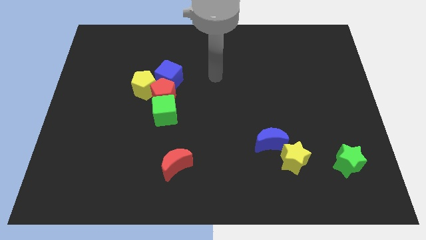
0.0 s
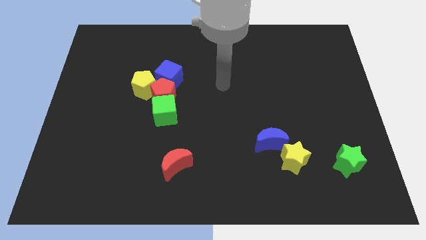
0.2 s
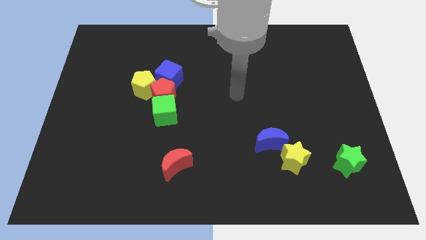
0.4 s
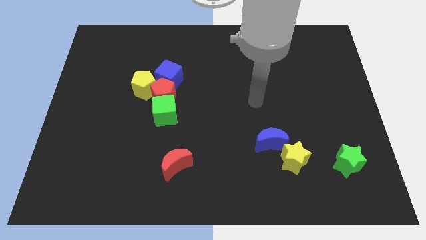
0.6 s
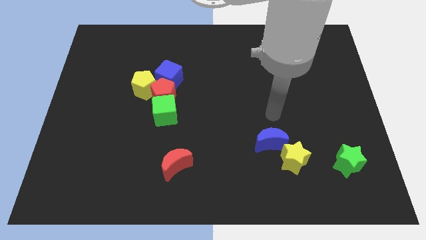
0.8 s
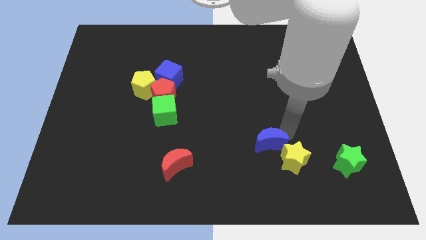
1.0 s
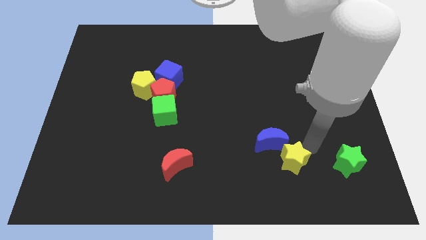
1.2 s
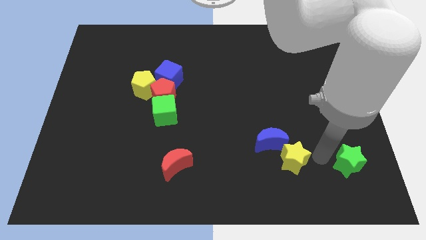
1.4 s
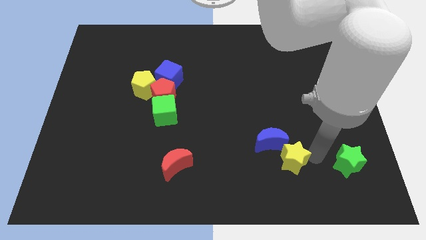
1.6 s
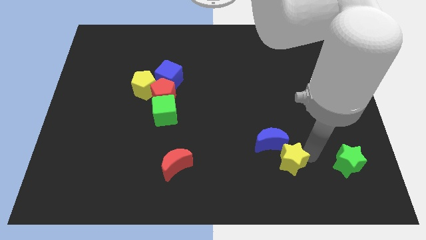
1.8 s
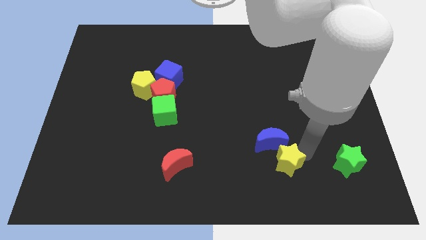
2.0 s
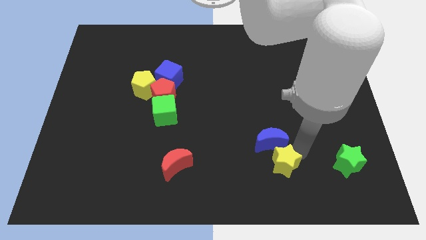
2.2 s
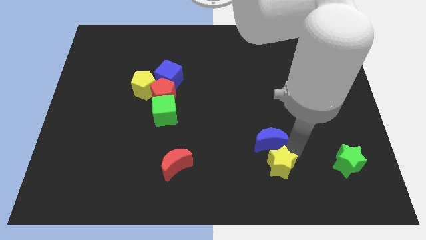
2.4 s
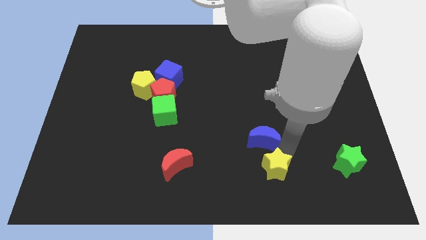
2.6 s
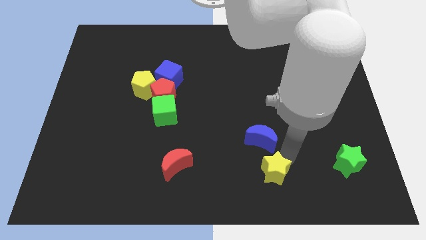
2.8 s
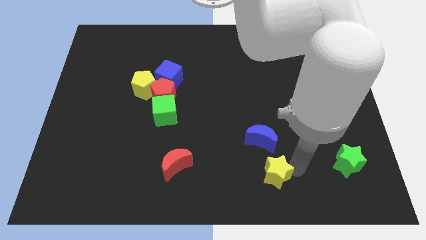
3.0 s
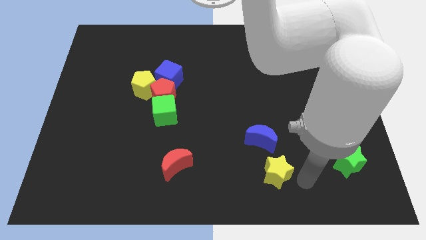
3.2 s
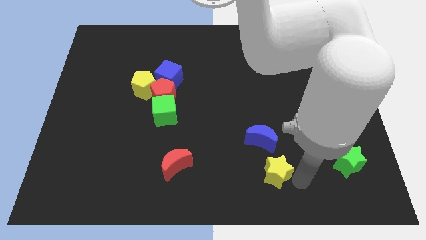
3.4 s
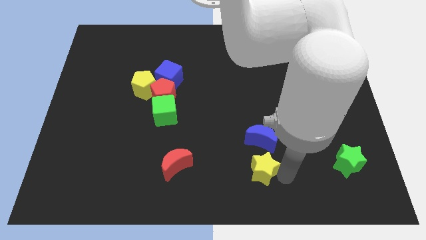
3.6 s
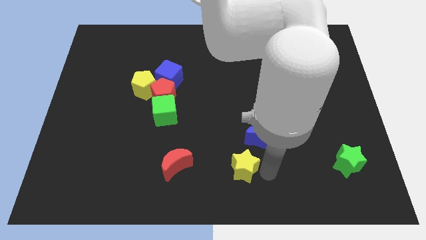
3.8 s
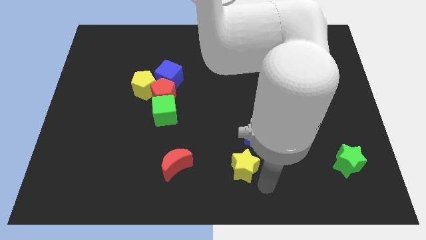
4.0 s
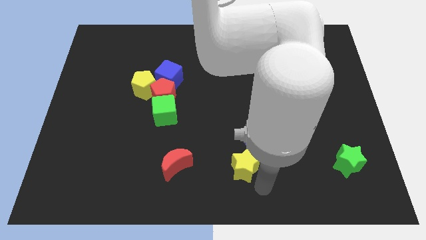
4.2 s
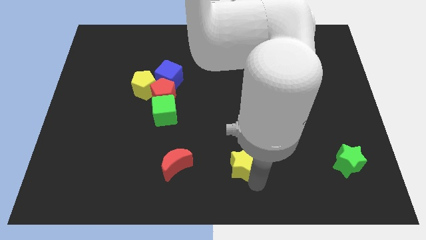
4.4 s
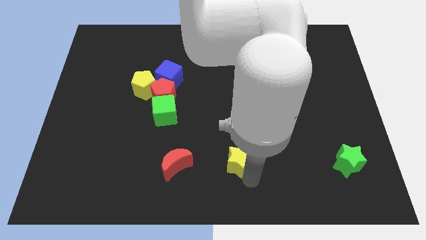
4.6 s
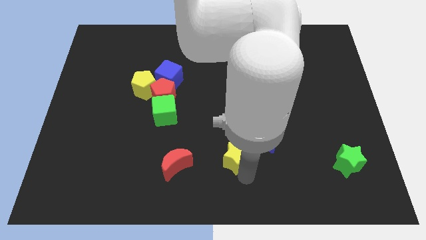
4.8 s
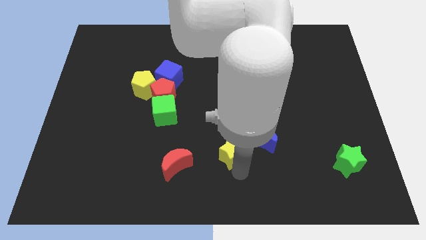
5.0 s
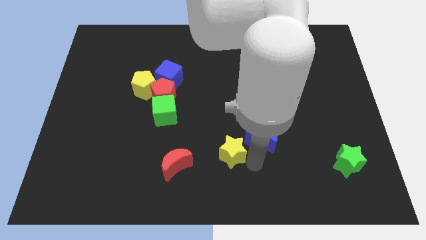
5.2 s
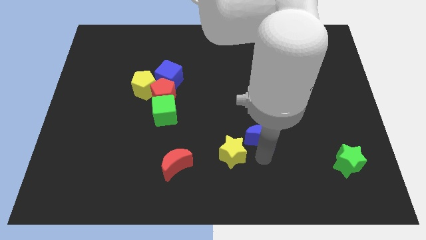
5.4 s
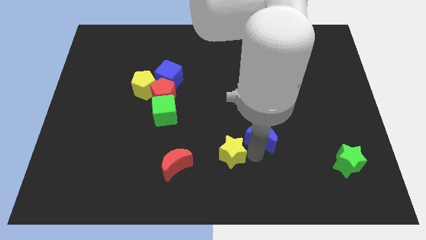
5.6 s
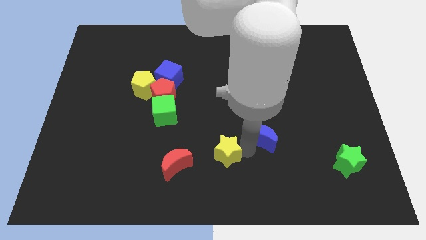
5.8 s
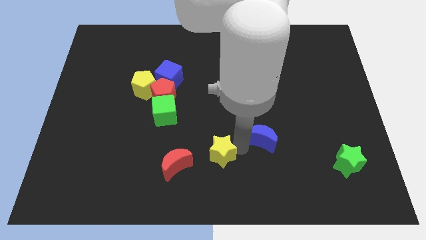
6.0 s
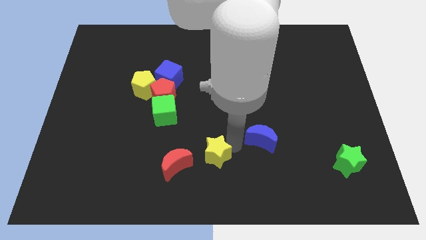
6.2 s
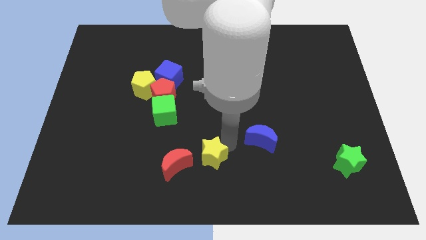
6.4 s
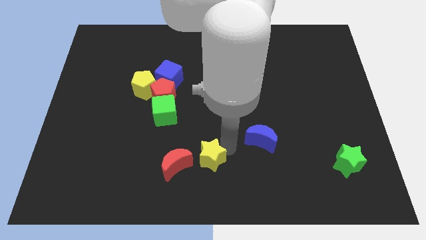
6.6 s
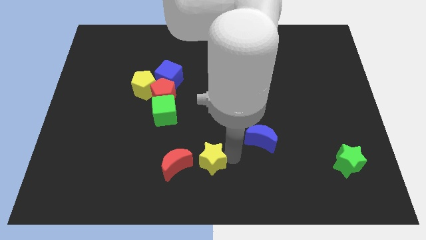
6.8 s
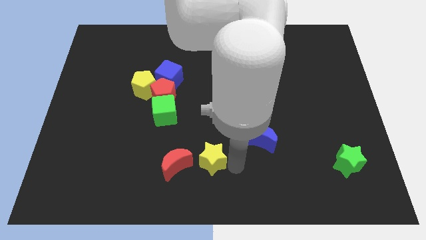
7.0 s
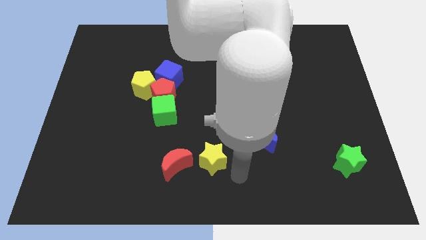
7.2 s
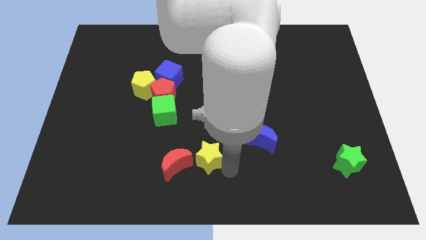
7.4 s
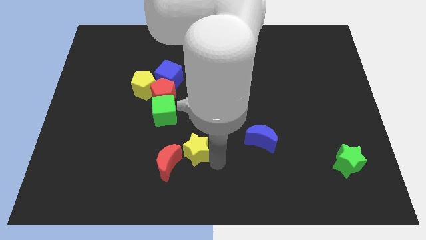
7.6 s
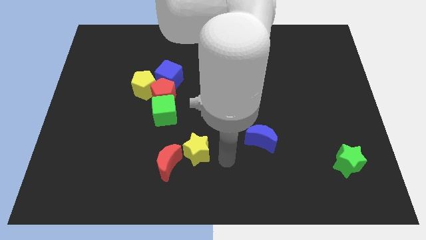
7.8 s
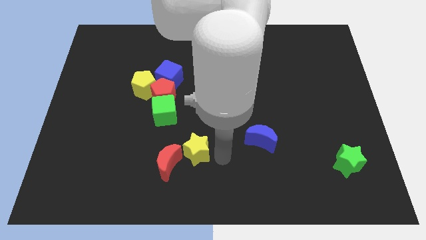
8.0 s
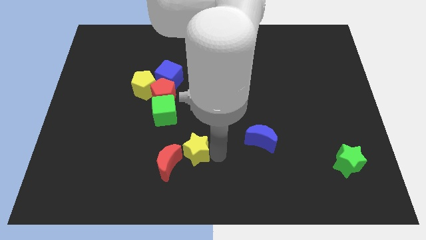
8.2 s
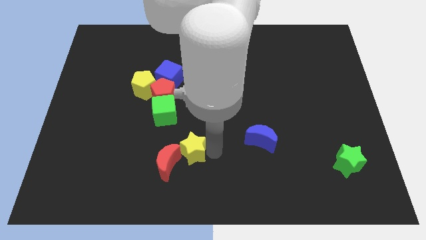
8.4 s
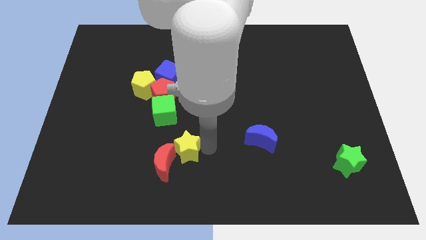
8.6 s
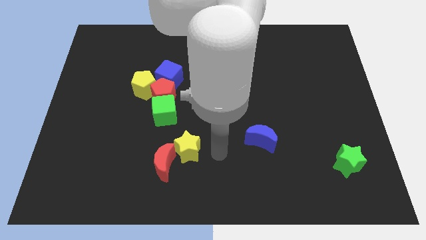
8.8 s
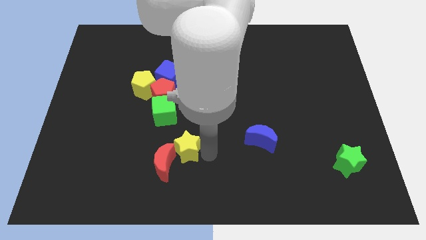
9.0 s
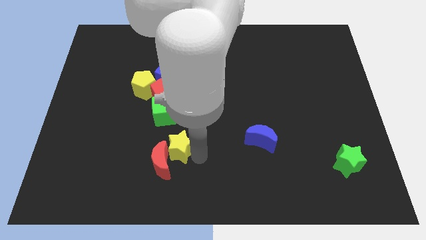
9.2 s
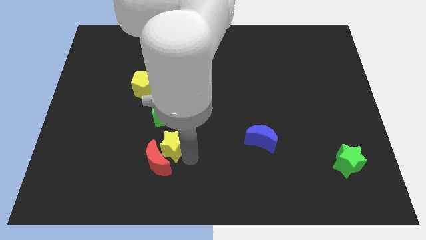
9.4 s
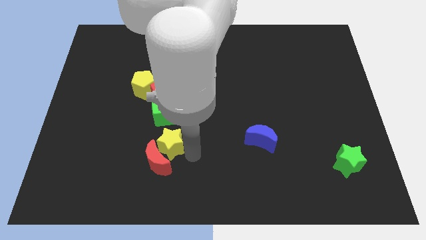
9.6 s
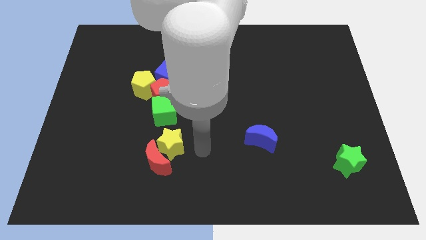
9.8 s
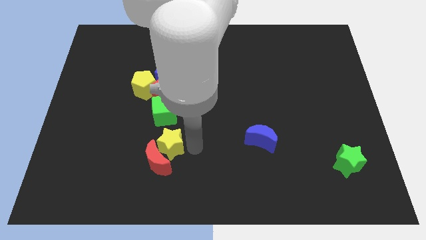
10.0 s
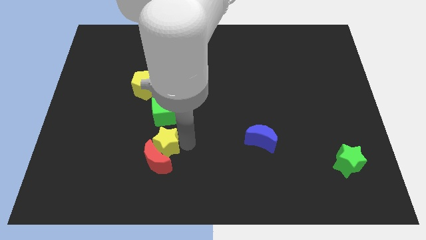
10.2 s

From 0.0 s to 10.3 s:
put the yellow star diagonally up and to the left of the red moon

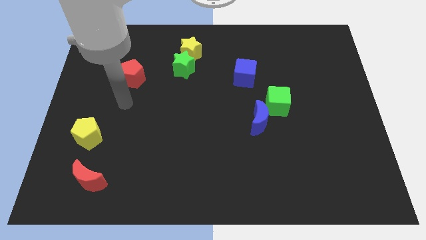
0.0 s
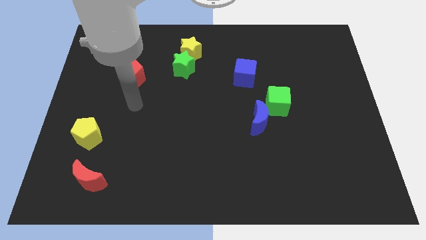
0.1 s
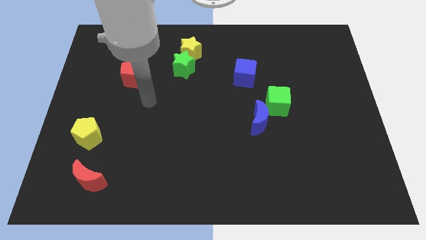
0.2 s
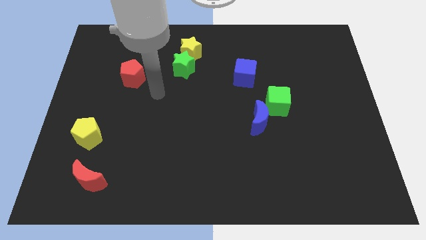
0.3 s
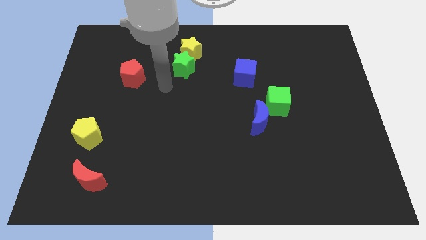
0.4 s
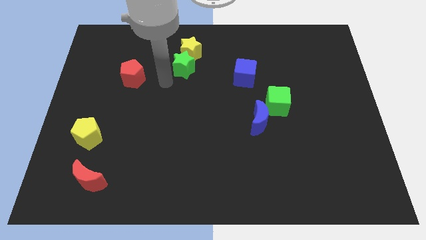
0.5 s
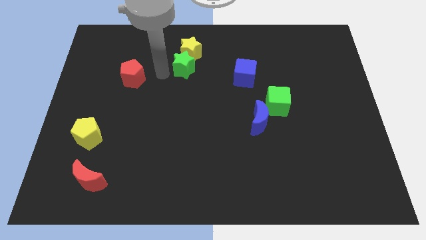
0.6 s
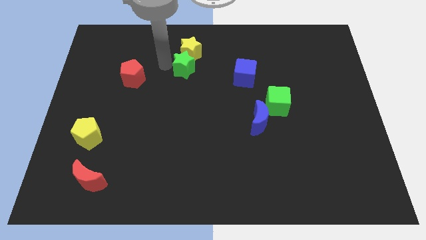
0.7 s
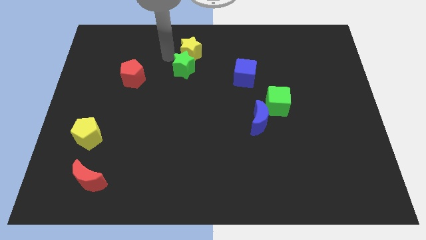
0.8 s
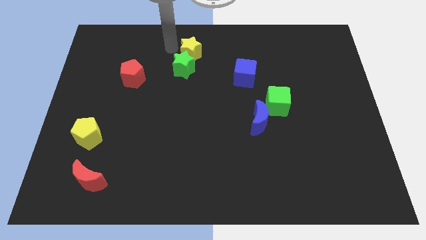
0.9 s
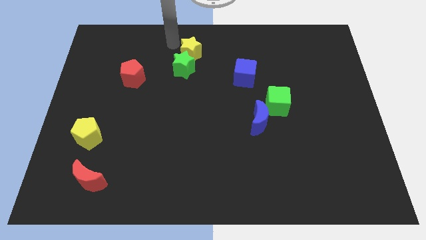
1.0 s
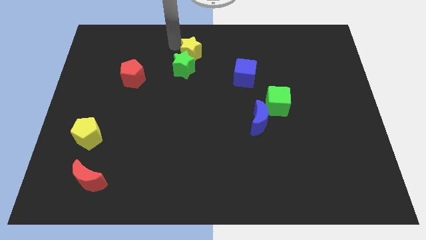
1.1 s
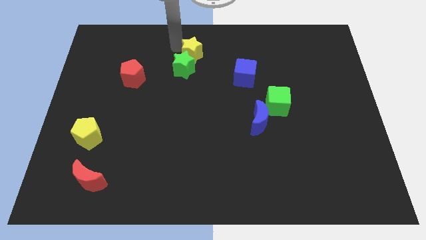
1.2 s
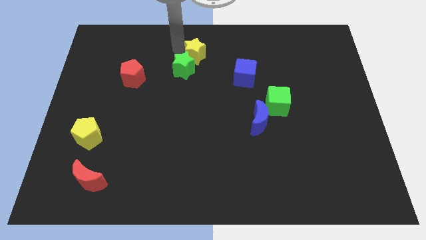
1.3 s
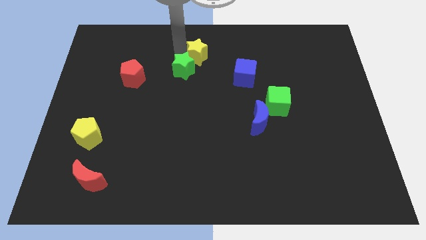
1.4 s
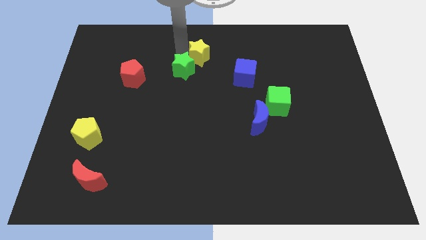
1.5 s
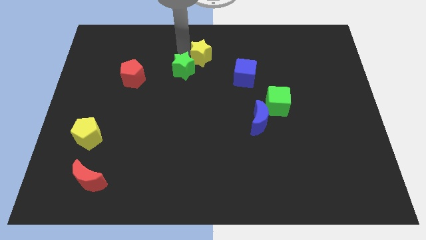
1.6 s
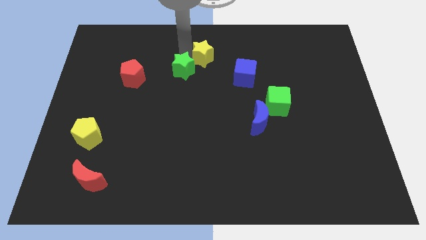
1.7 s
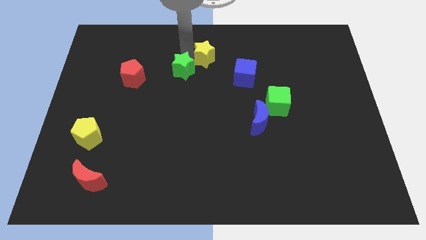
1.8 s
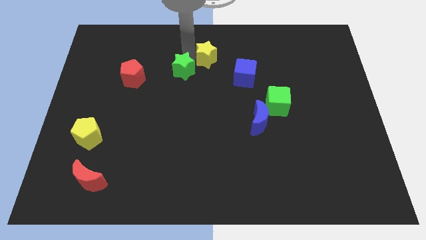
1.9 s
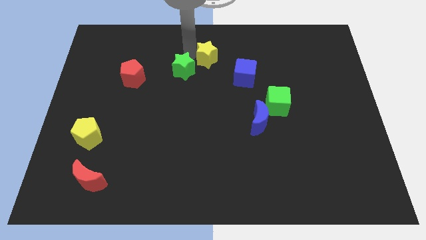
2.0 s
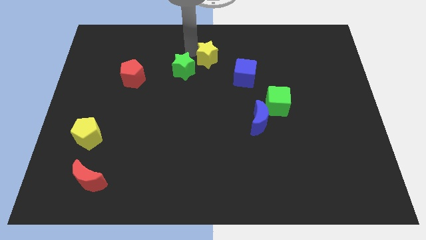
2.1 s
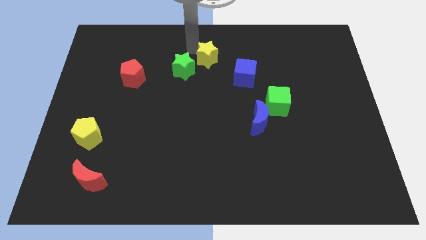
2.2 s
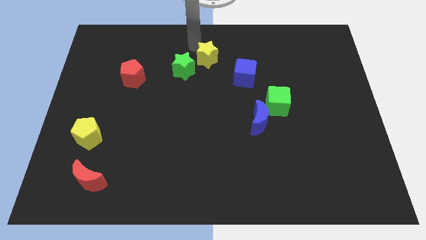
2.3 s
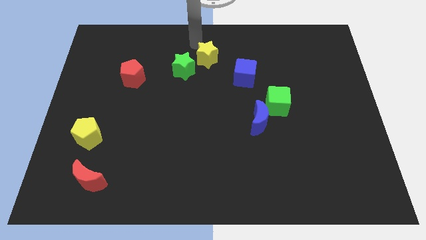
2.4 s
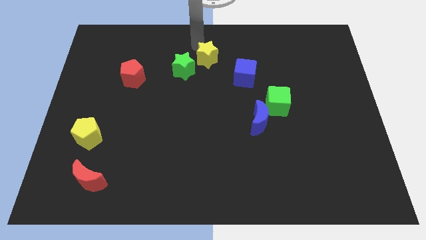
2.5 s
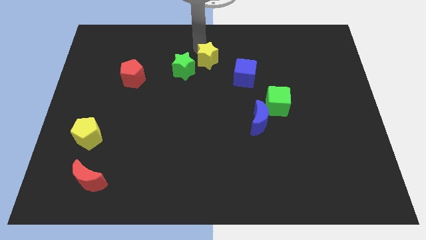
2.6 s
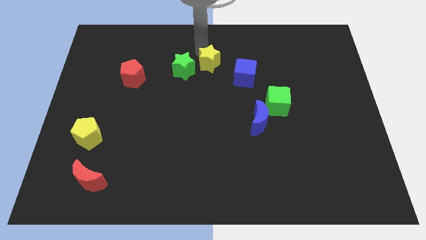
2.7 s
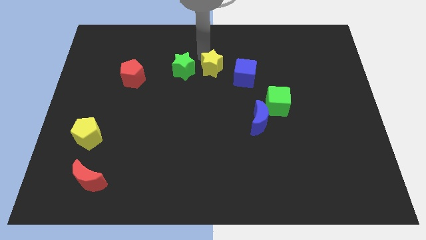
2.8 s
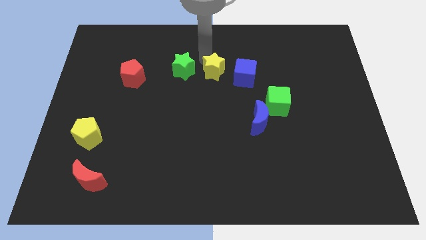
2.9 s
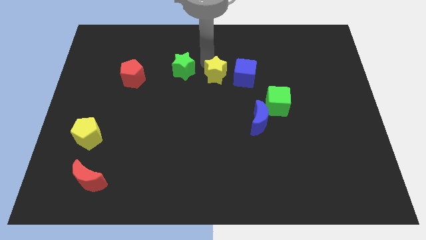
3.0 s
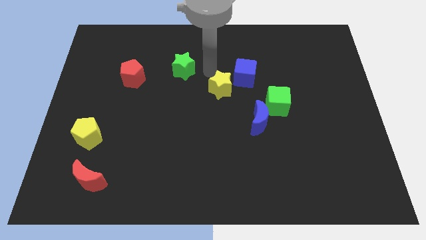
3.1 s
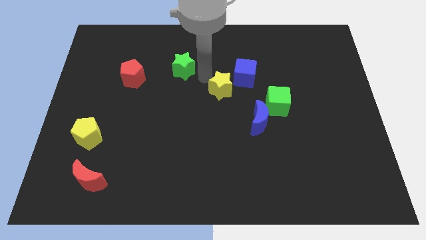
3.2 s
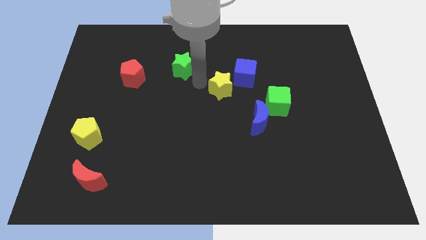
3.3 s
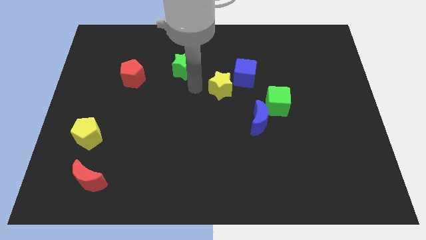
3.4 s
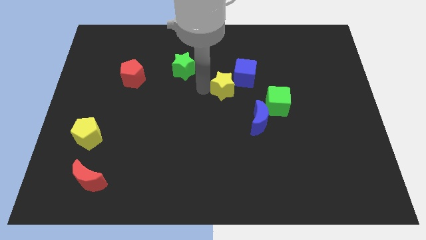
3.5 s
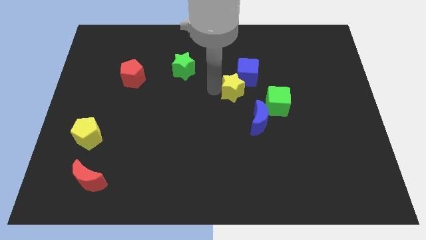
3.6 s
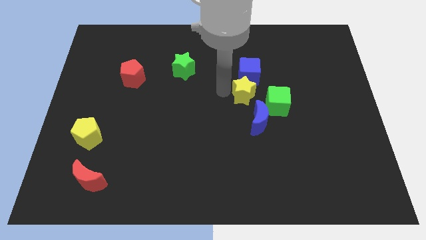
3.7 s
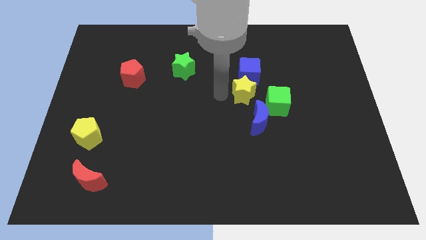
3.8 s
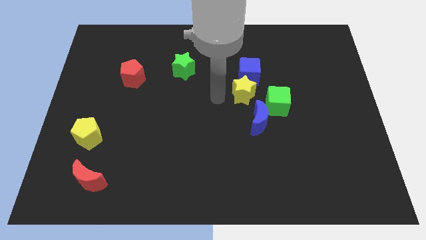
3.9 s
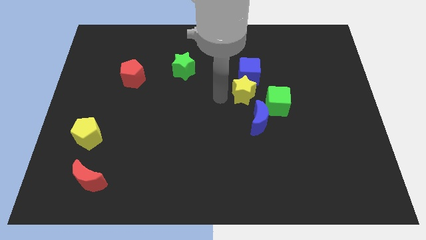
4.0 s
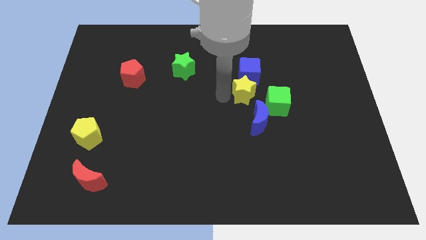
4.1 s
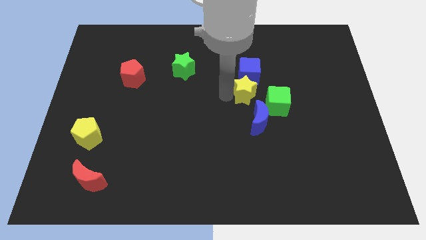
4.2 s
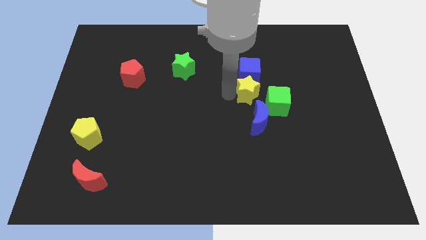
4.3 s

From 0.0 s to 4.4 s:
slide the yellow star diagonally down and to the right of the blue cube
